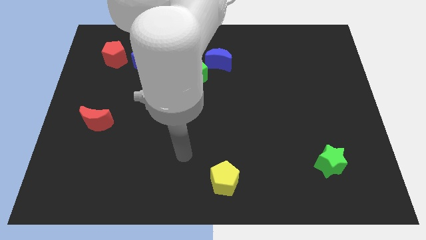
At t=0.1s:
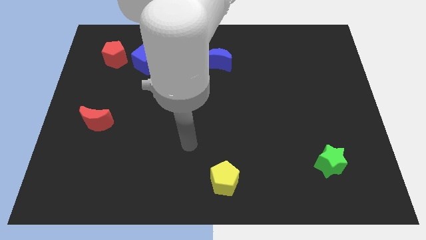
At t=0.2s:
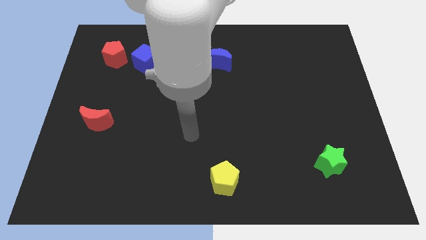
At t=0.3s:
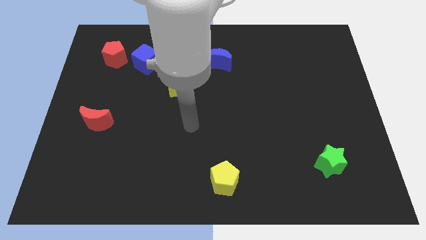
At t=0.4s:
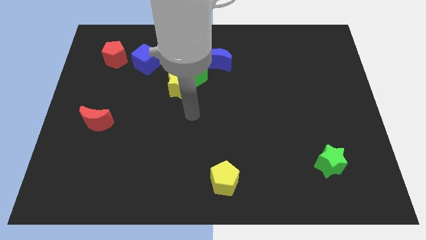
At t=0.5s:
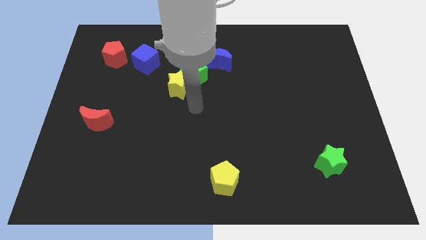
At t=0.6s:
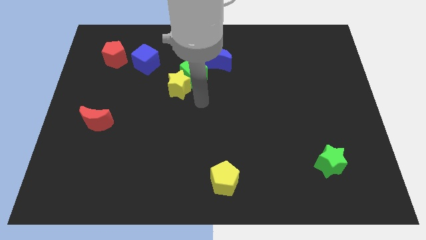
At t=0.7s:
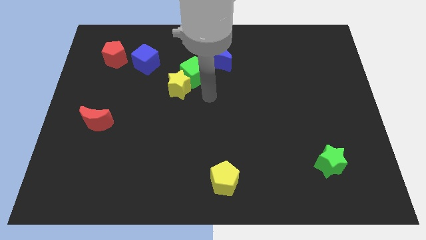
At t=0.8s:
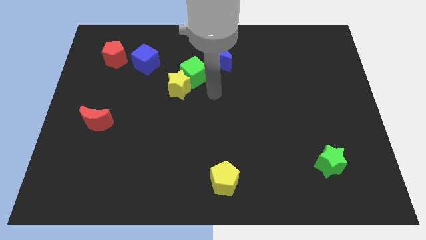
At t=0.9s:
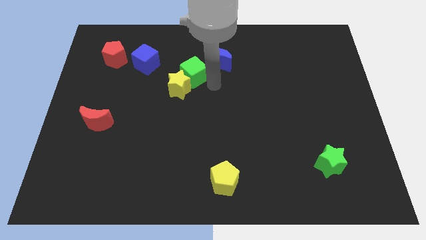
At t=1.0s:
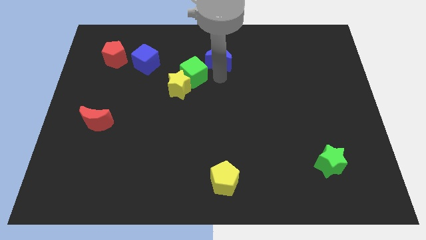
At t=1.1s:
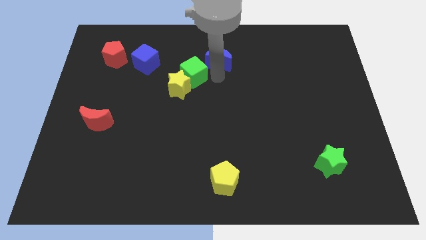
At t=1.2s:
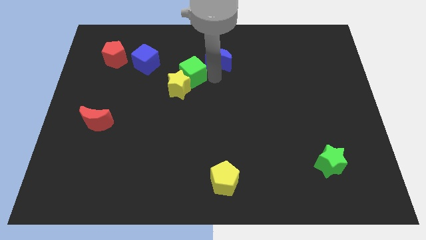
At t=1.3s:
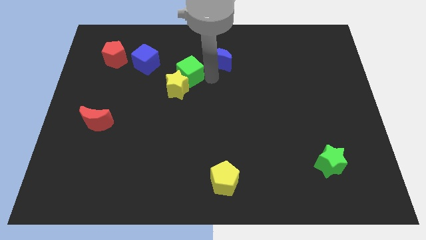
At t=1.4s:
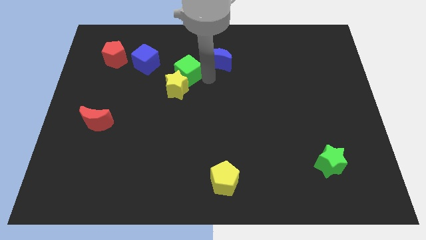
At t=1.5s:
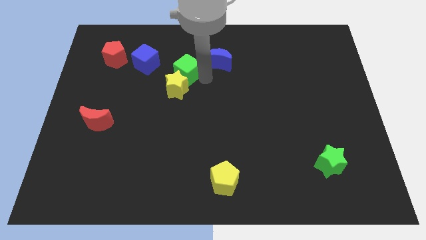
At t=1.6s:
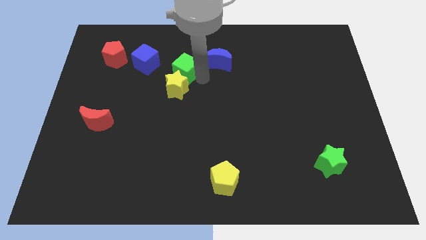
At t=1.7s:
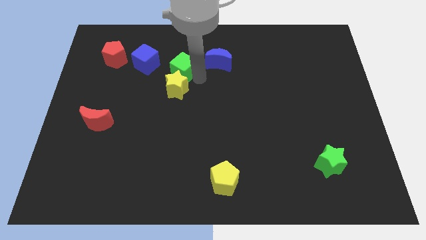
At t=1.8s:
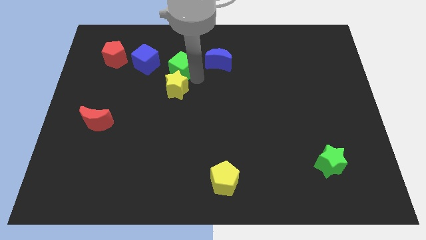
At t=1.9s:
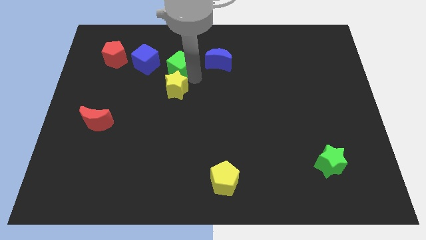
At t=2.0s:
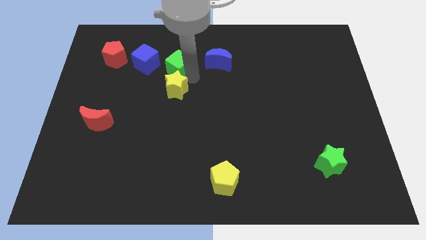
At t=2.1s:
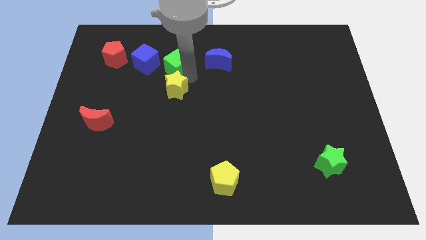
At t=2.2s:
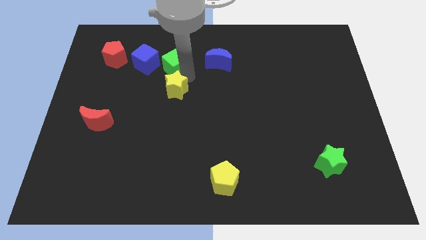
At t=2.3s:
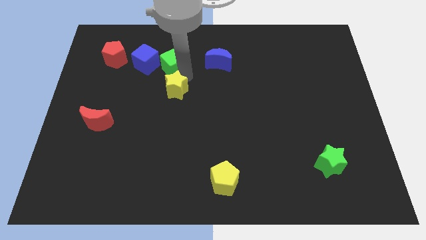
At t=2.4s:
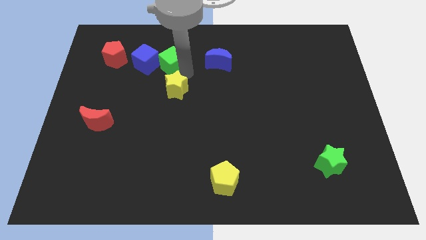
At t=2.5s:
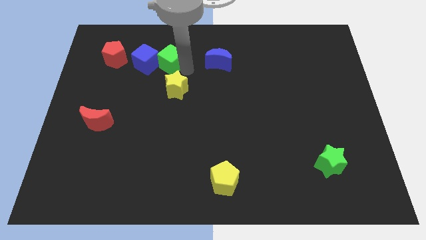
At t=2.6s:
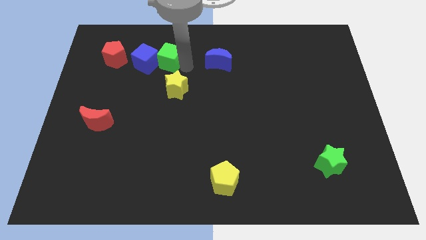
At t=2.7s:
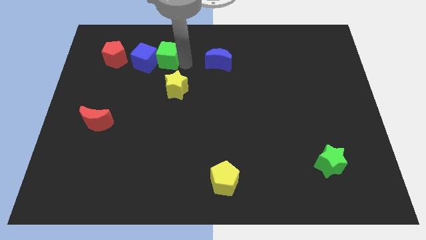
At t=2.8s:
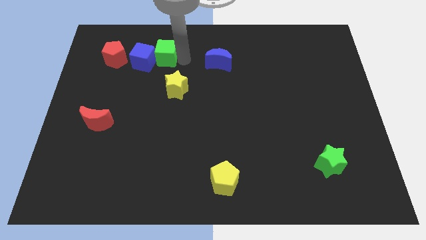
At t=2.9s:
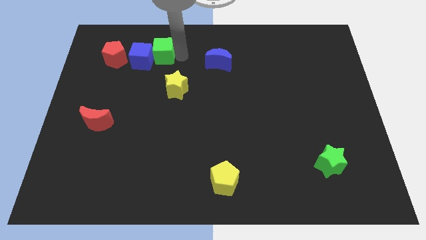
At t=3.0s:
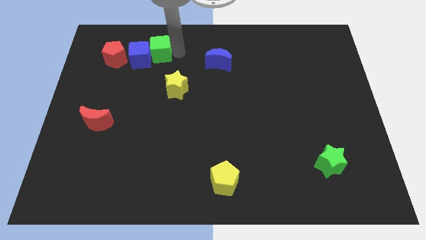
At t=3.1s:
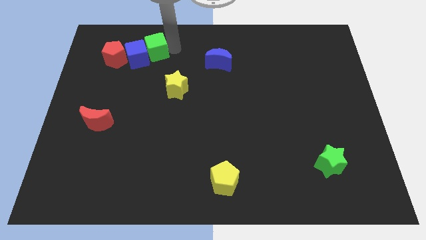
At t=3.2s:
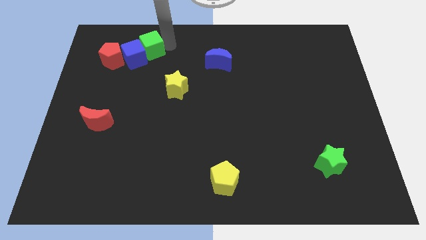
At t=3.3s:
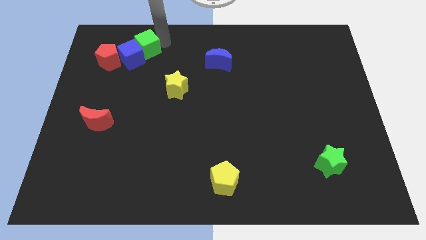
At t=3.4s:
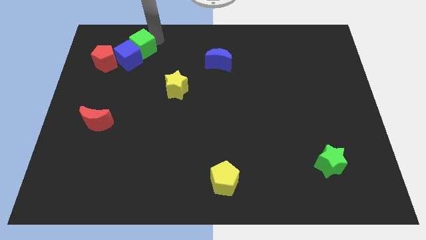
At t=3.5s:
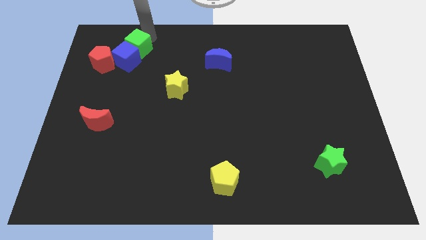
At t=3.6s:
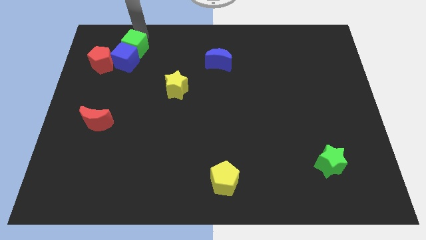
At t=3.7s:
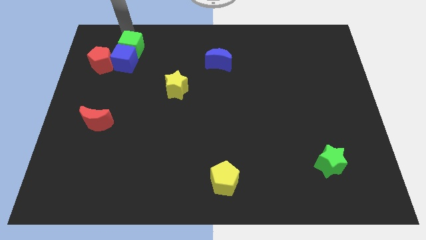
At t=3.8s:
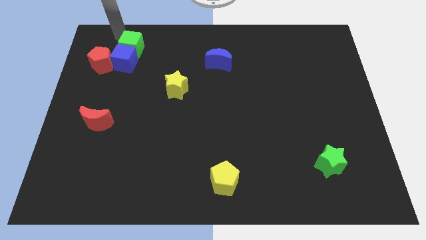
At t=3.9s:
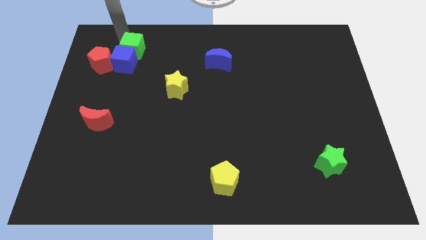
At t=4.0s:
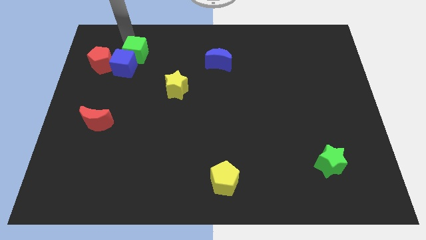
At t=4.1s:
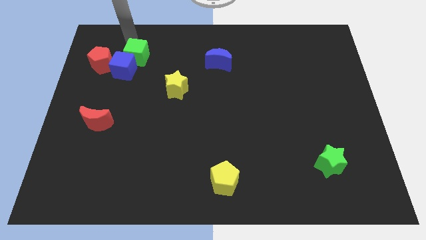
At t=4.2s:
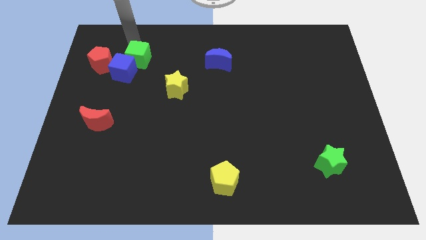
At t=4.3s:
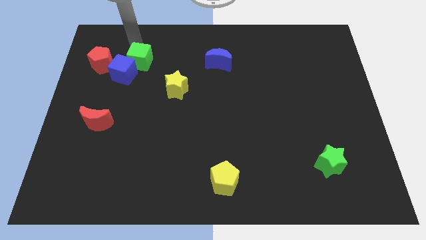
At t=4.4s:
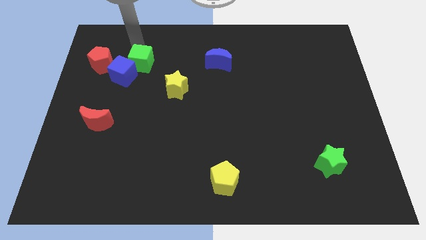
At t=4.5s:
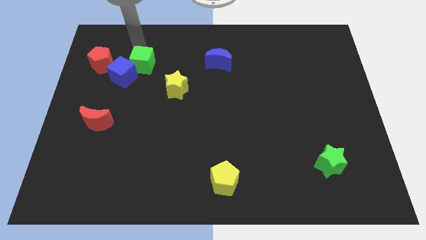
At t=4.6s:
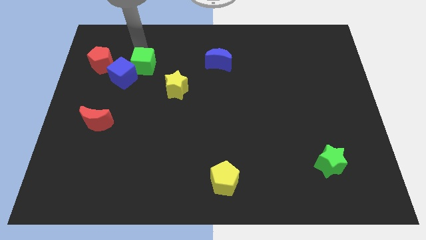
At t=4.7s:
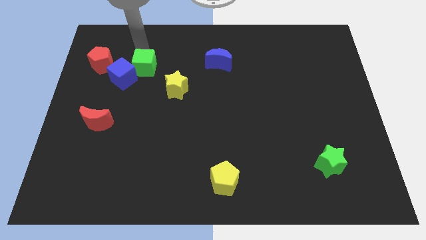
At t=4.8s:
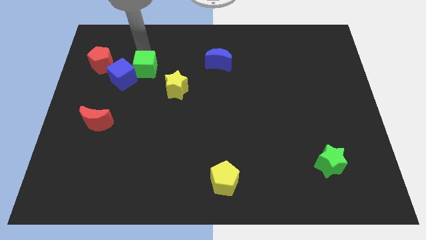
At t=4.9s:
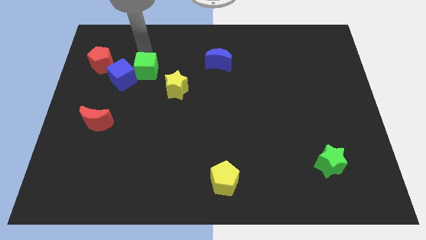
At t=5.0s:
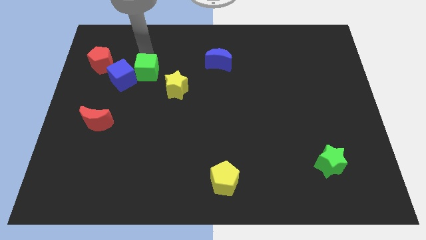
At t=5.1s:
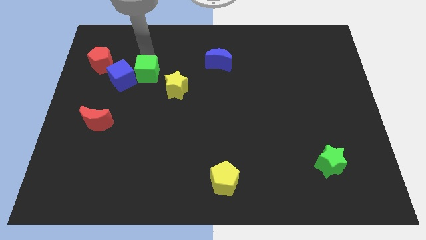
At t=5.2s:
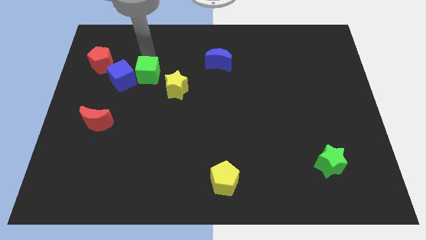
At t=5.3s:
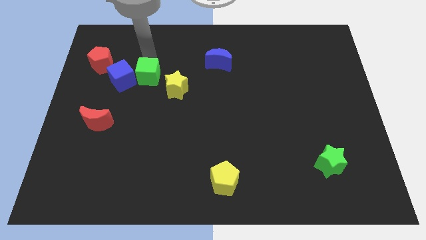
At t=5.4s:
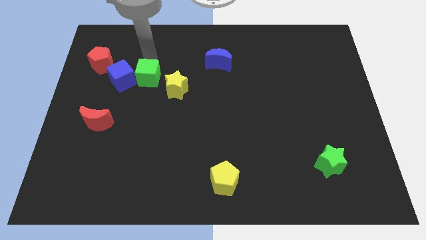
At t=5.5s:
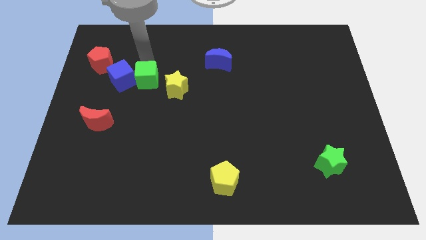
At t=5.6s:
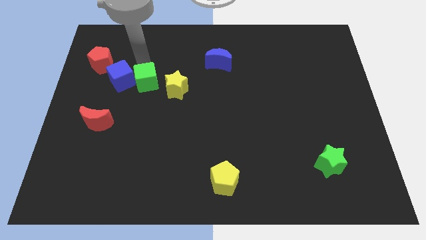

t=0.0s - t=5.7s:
push the green cube a bit down and then to the left

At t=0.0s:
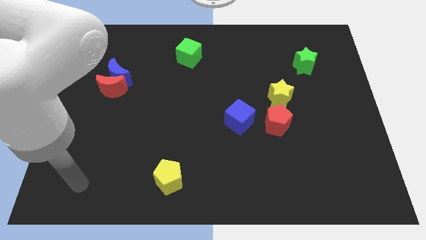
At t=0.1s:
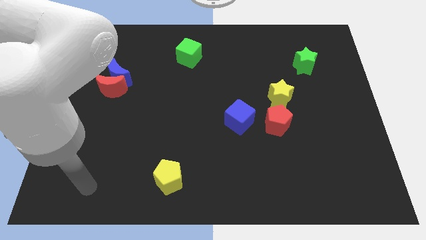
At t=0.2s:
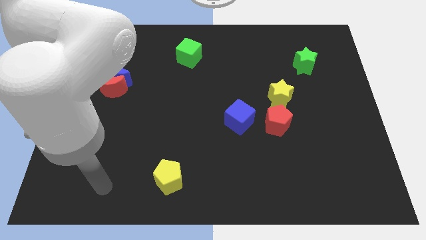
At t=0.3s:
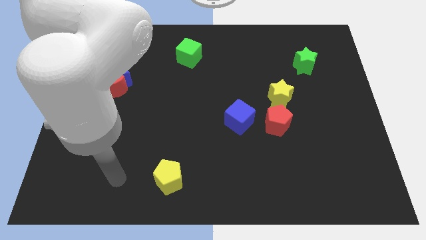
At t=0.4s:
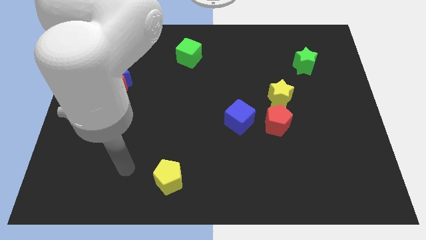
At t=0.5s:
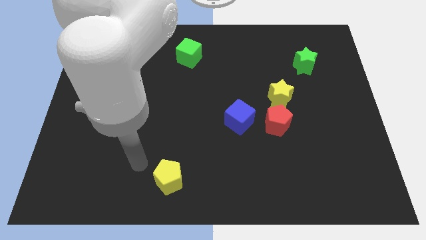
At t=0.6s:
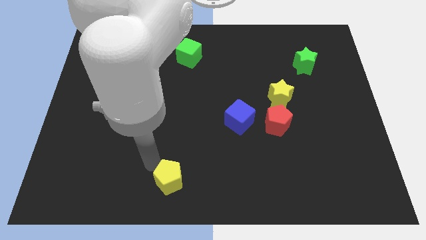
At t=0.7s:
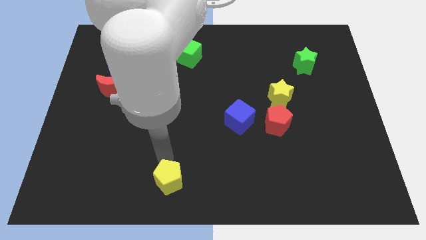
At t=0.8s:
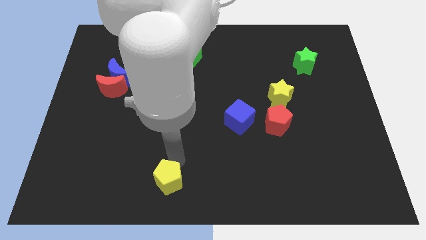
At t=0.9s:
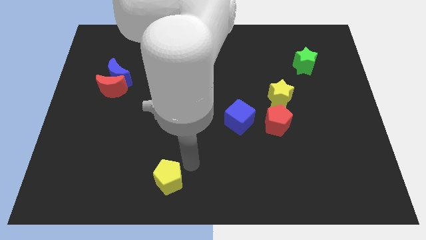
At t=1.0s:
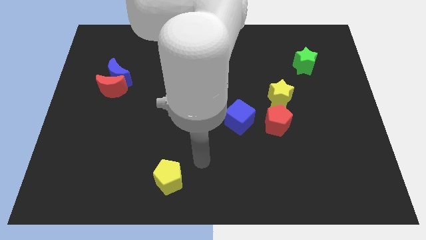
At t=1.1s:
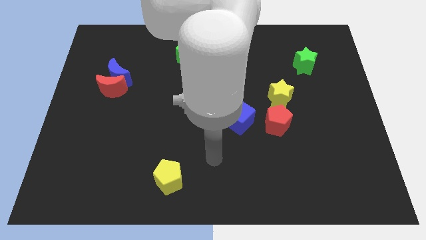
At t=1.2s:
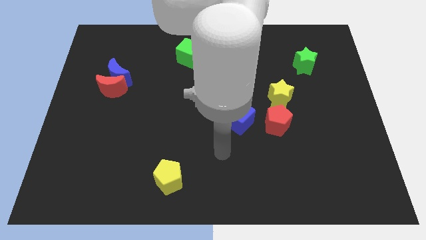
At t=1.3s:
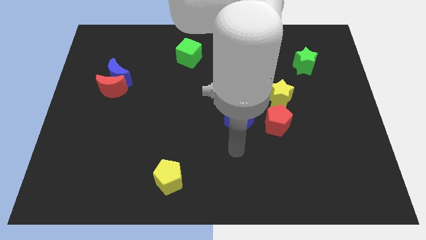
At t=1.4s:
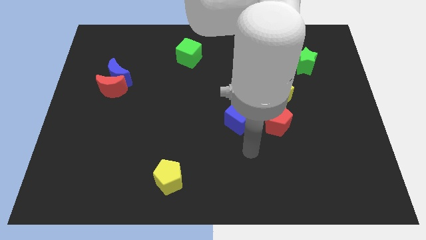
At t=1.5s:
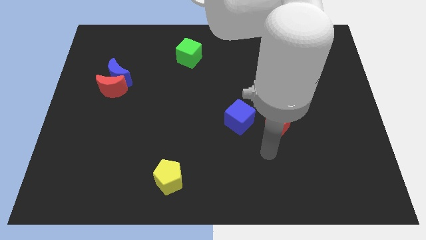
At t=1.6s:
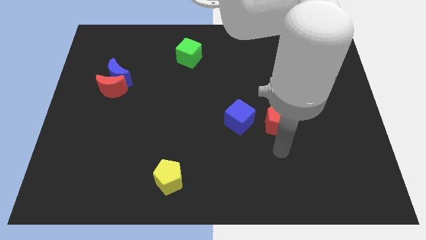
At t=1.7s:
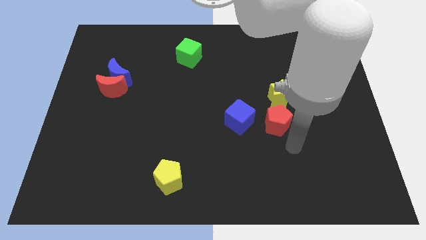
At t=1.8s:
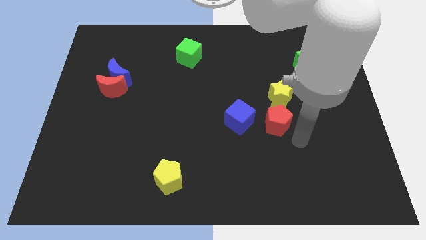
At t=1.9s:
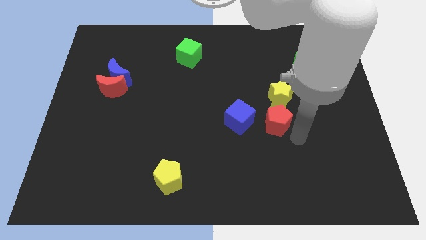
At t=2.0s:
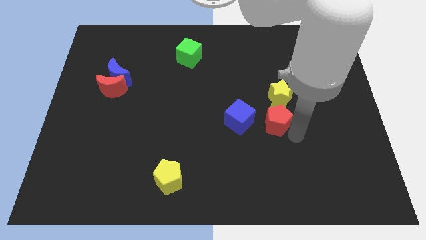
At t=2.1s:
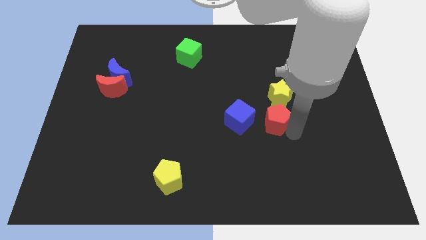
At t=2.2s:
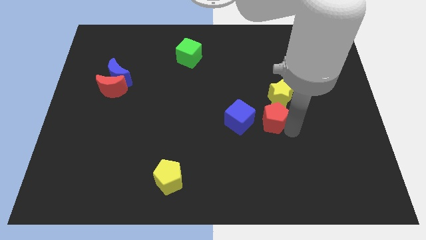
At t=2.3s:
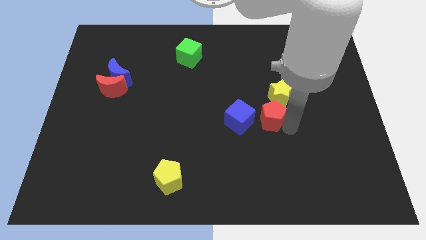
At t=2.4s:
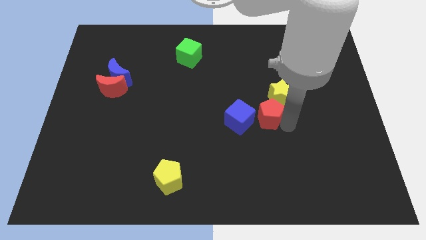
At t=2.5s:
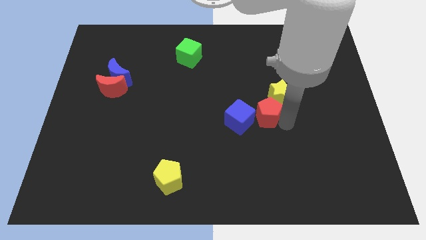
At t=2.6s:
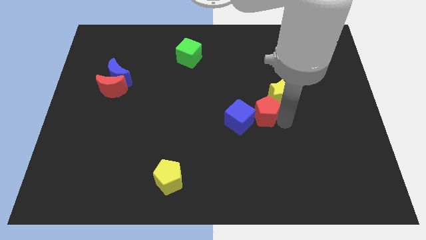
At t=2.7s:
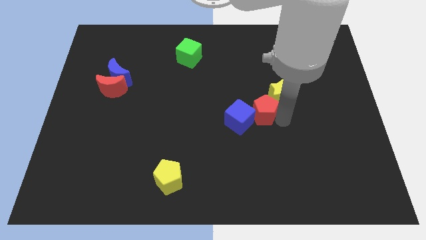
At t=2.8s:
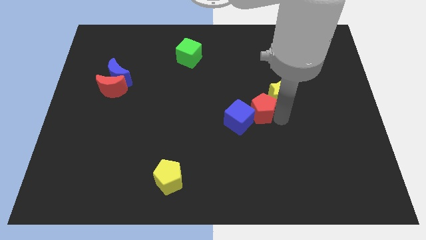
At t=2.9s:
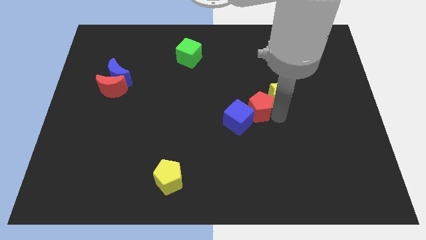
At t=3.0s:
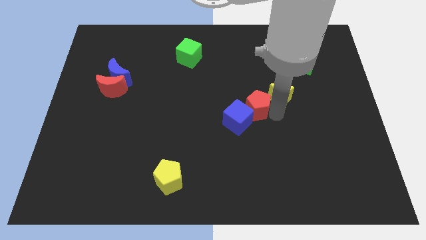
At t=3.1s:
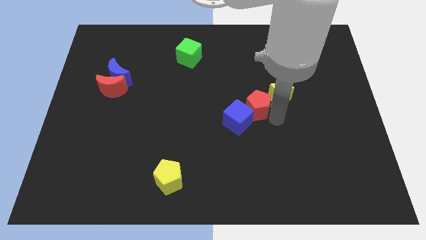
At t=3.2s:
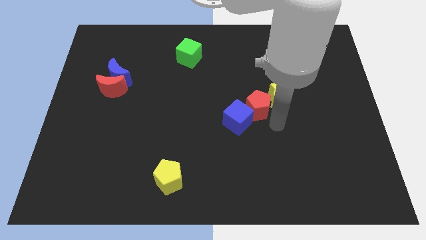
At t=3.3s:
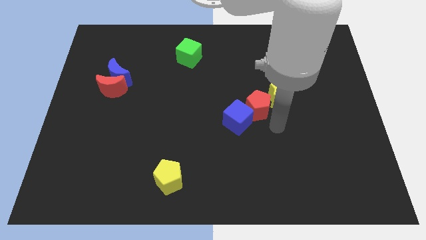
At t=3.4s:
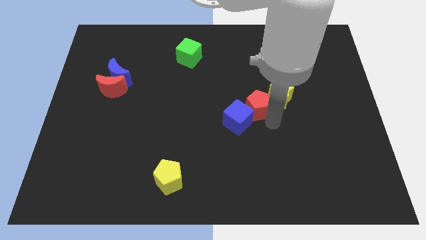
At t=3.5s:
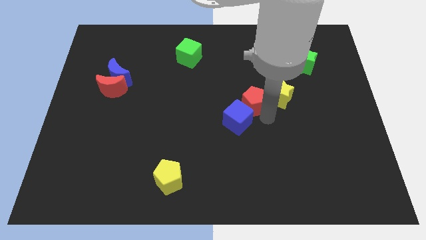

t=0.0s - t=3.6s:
slightly push the red pentagon upwards and left
